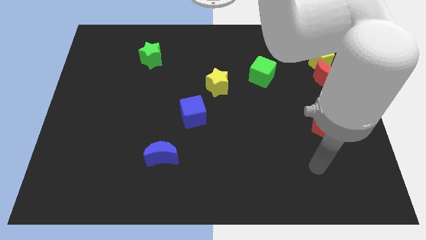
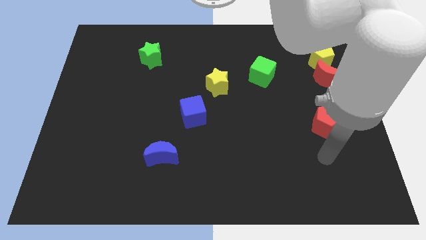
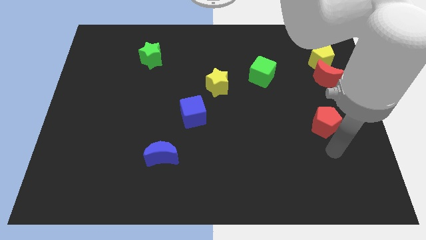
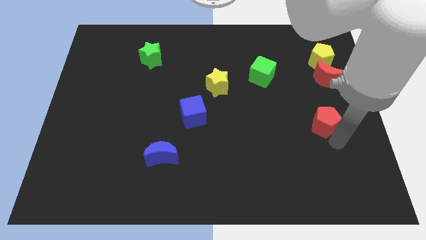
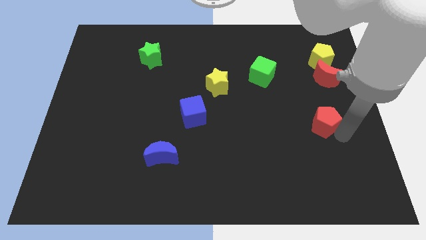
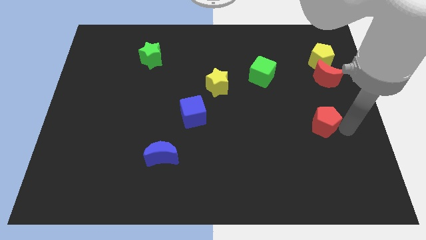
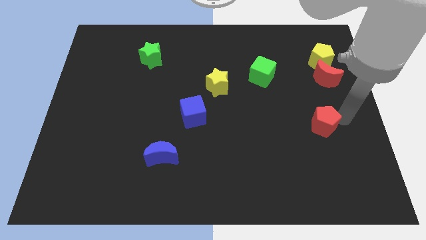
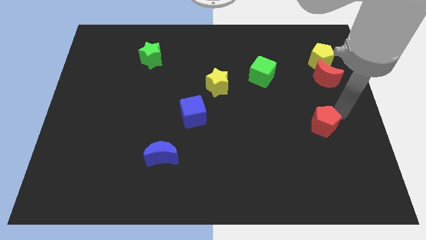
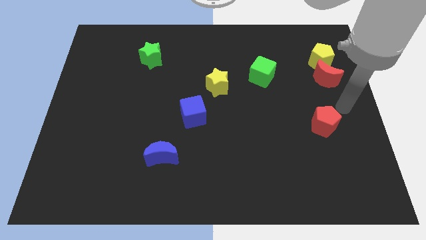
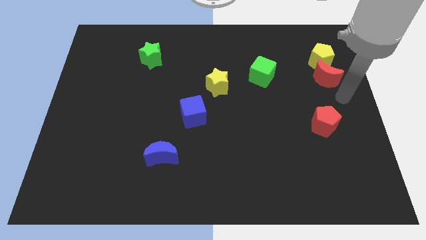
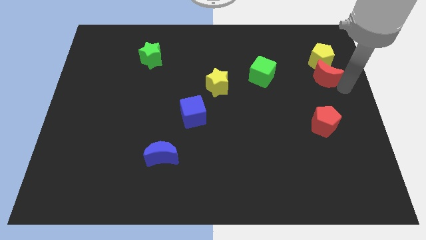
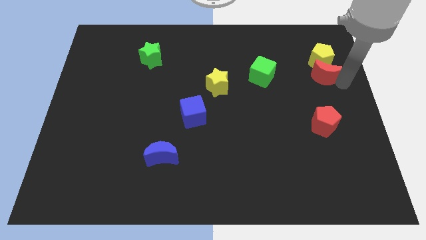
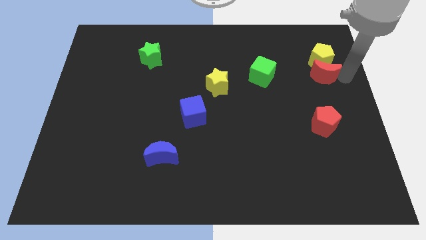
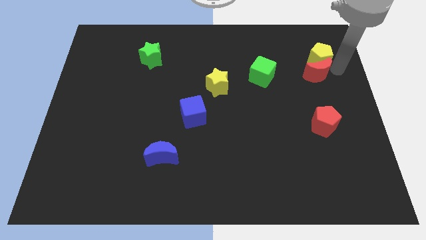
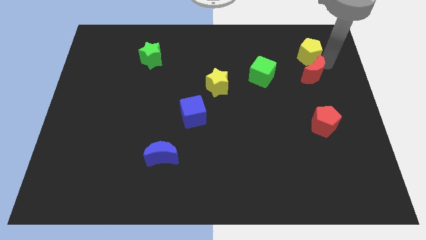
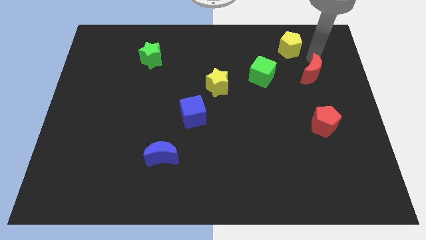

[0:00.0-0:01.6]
move the red moon away from the yellow pentagon

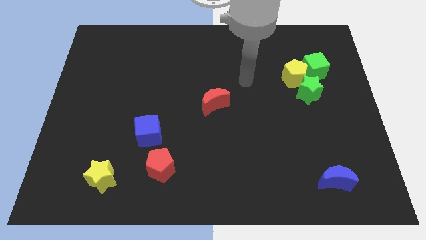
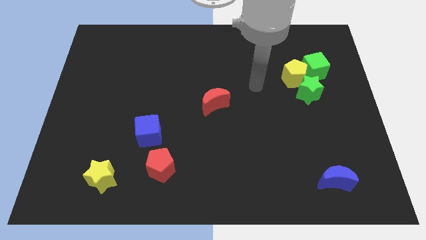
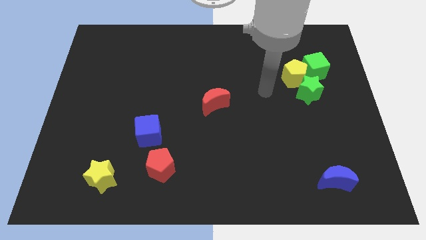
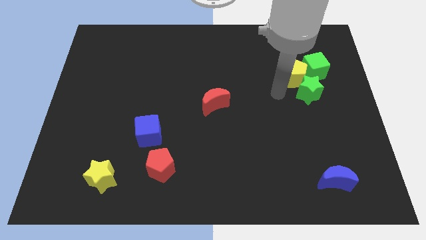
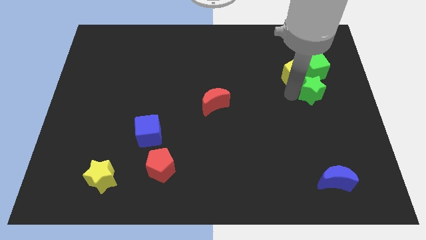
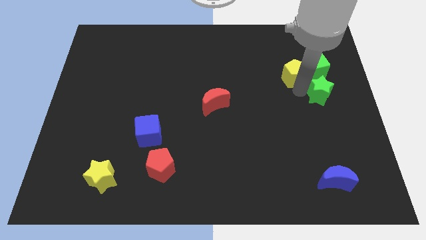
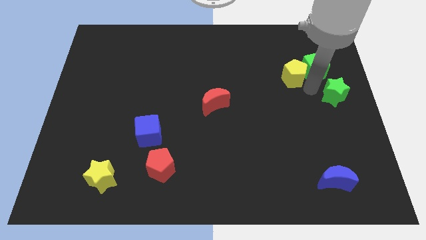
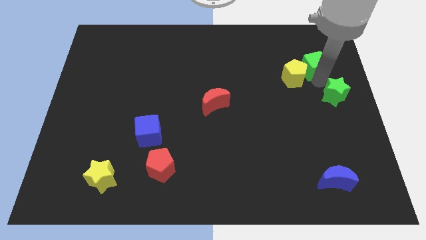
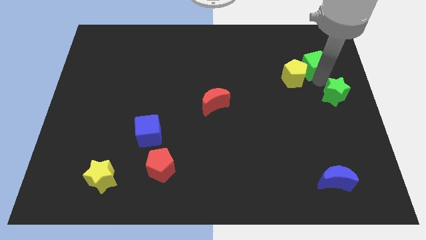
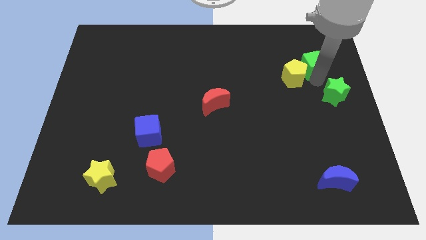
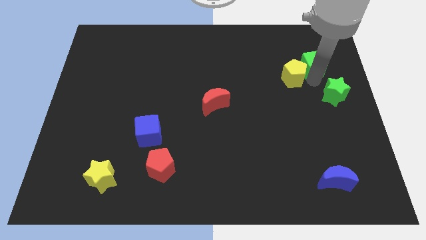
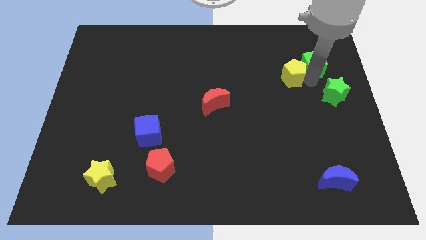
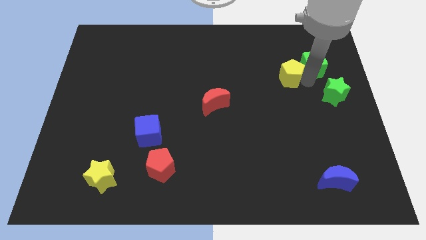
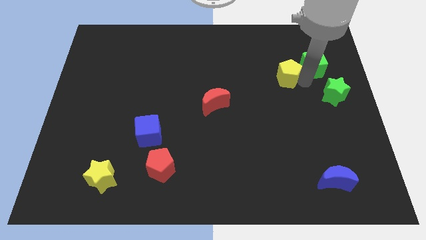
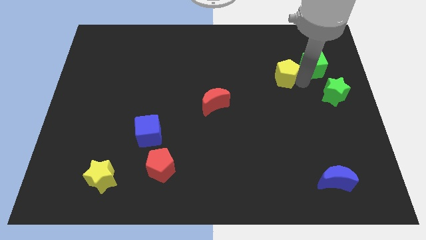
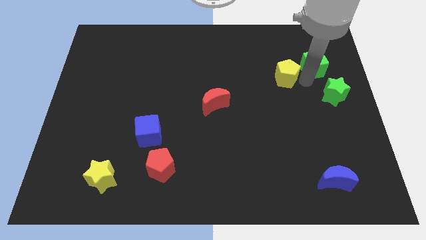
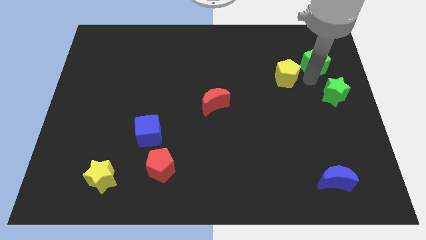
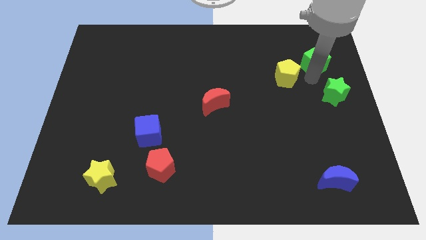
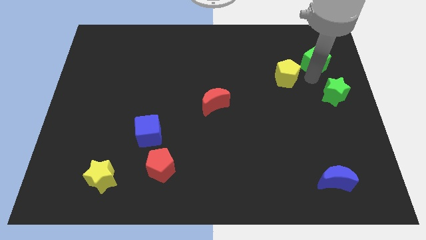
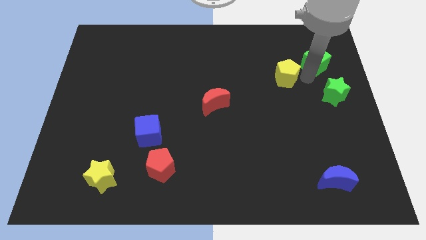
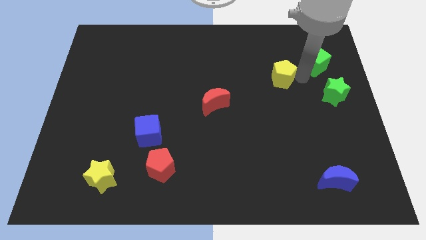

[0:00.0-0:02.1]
pull the yellow pentagon apart from the green star and green cube

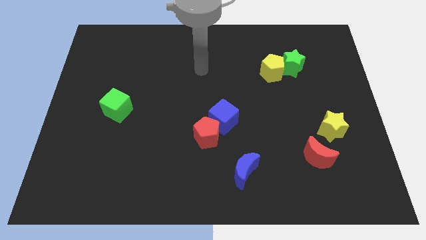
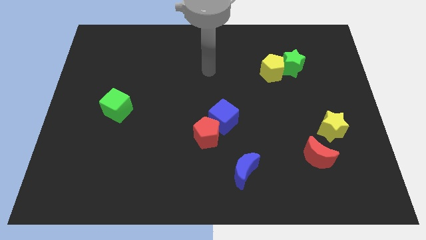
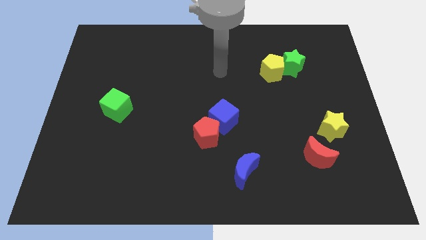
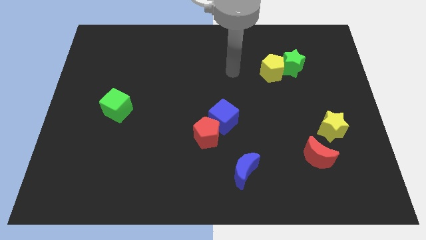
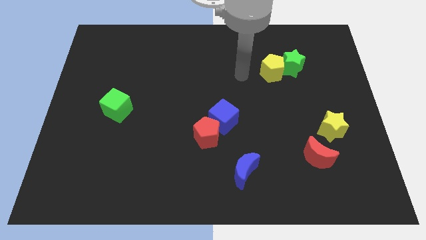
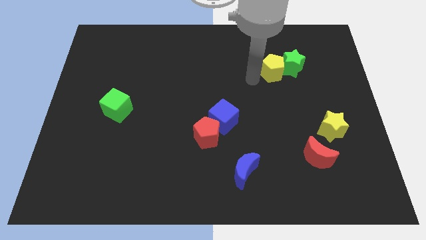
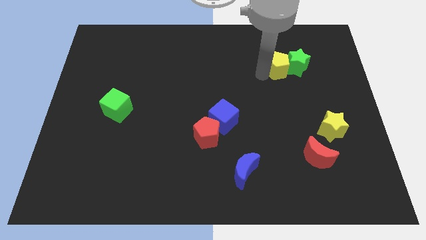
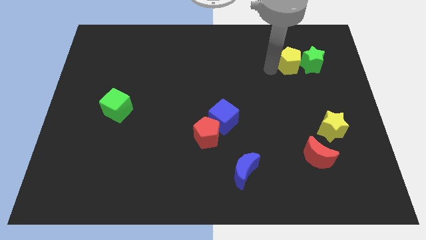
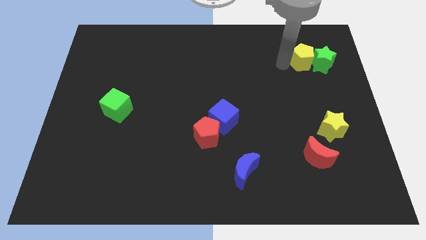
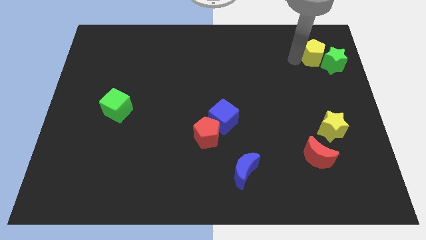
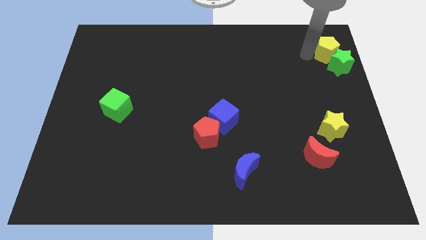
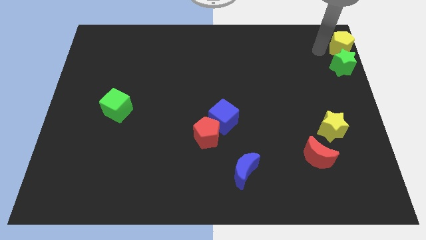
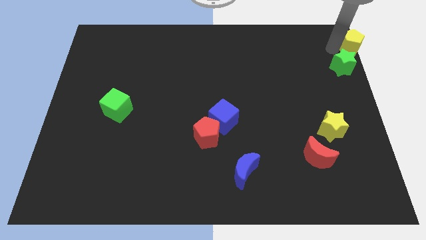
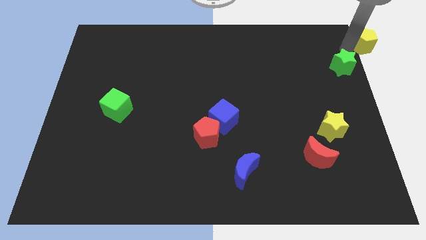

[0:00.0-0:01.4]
separate the green star from the yellow pentagon

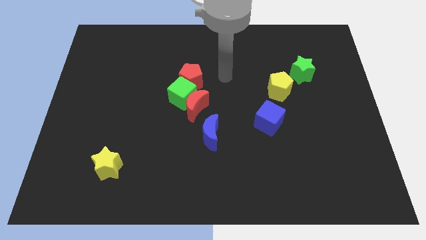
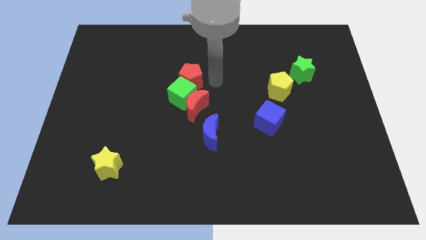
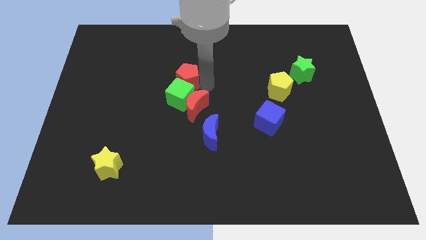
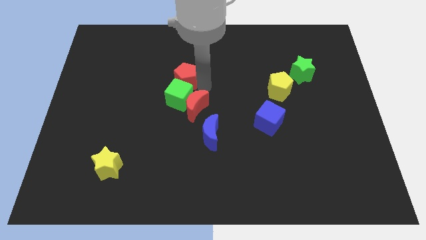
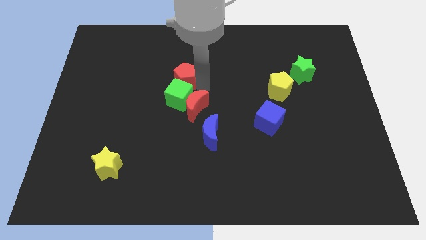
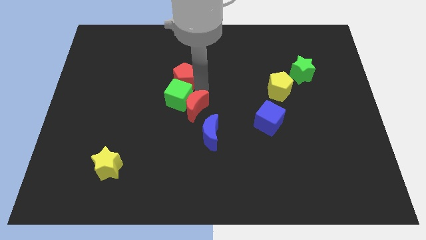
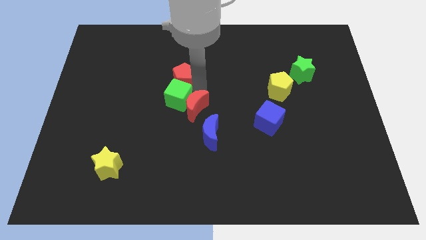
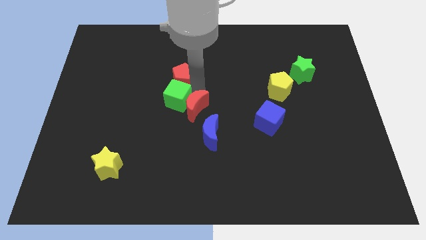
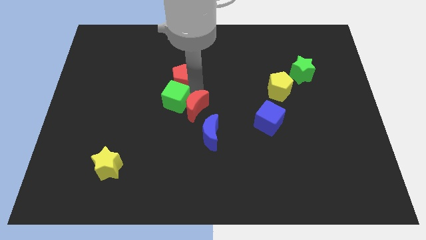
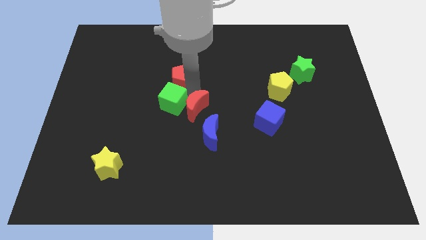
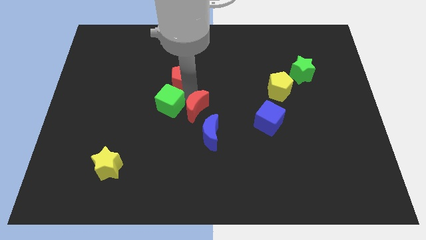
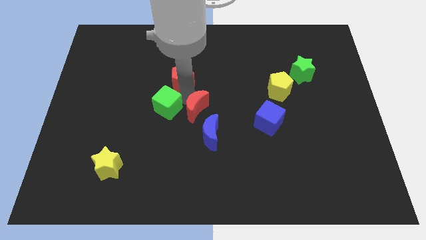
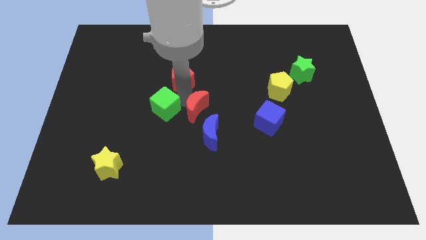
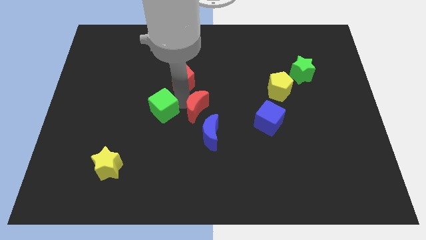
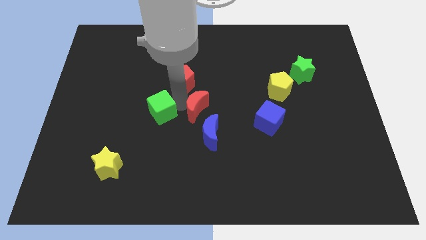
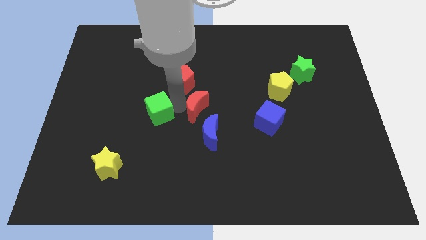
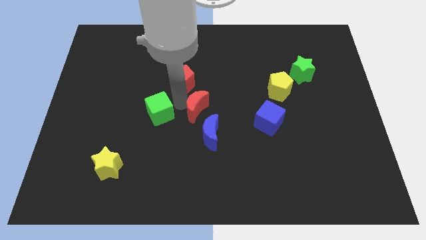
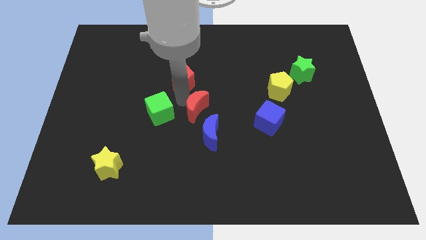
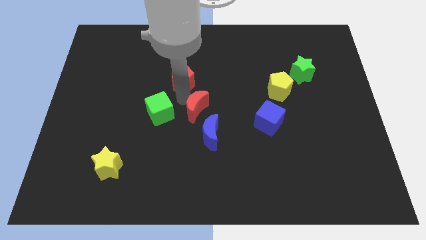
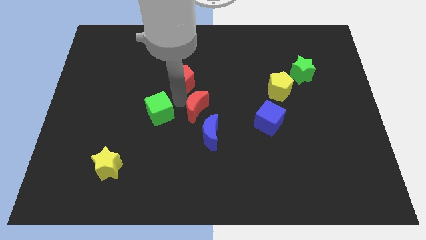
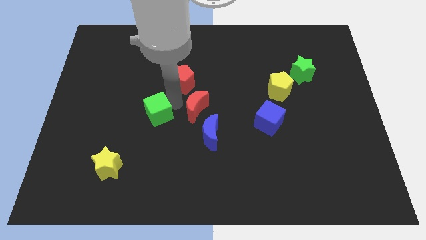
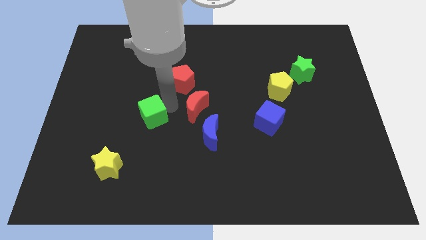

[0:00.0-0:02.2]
separate the green cube from the red moon and red pentagon

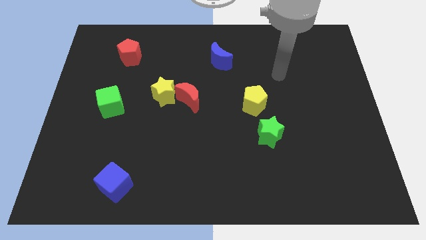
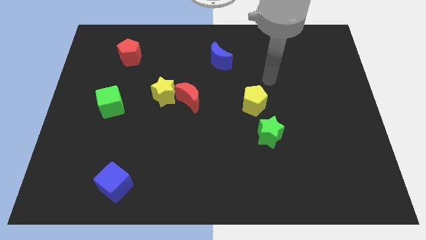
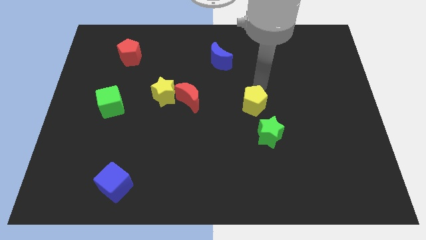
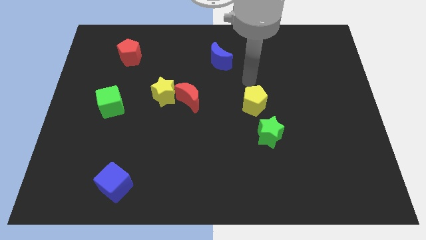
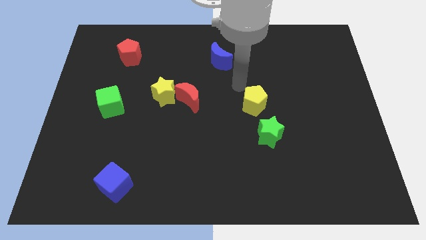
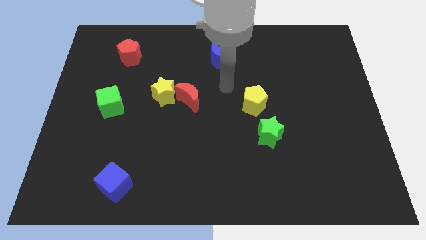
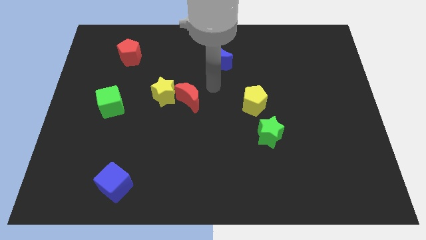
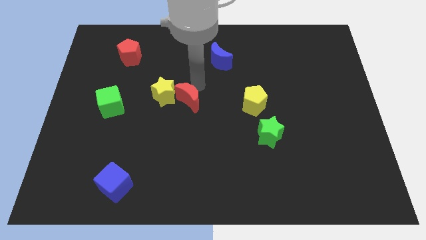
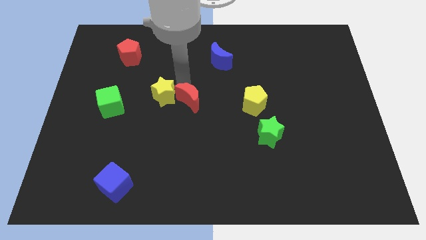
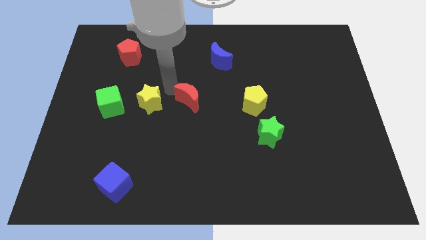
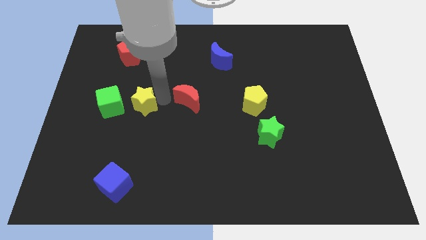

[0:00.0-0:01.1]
pull the red moon apart from the yellow star

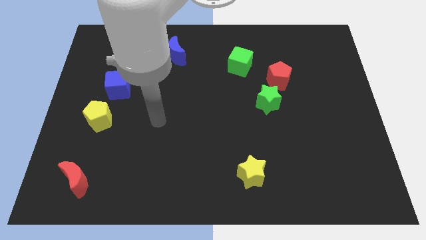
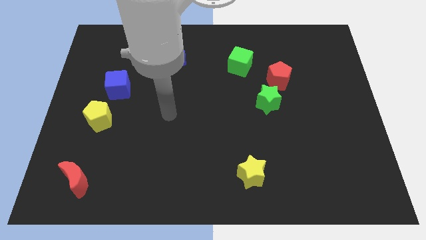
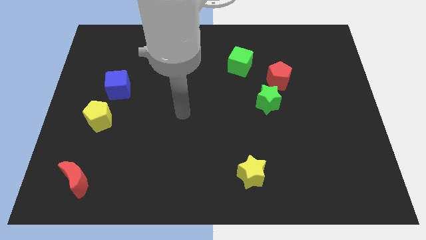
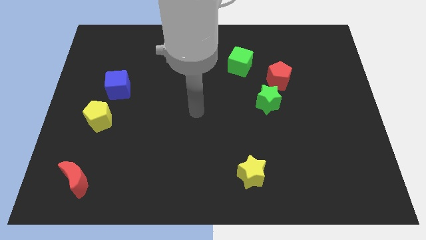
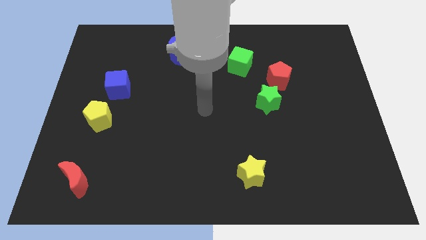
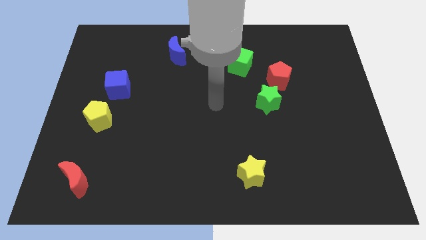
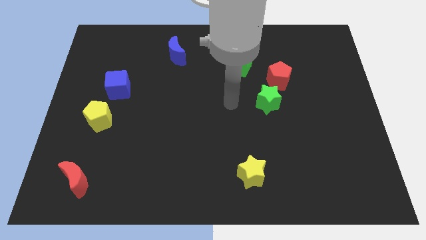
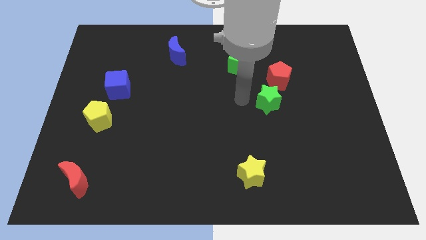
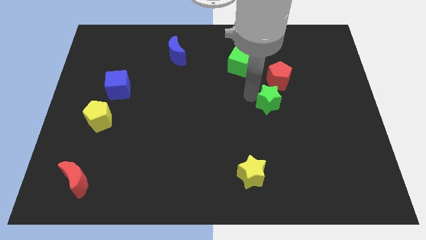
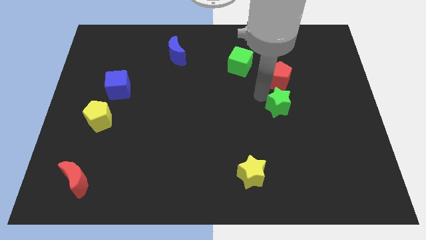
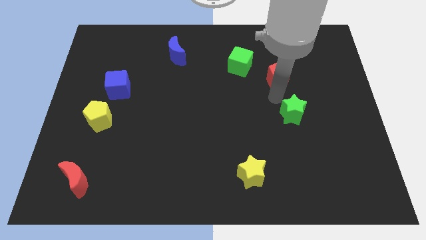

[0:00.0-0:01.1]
pull the red pentagon apart from the green star
